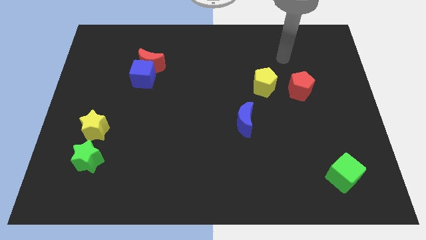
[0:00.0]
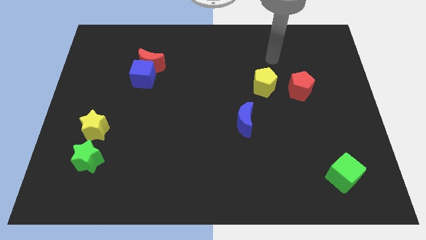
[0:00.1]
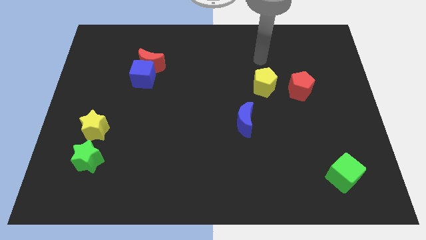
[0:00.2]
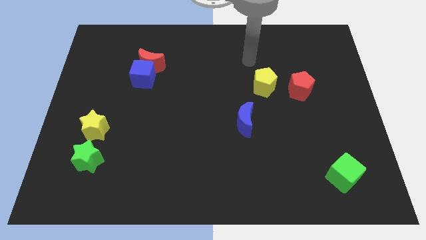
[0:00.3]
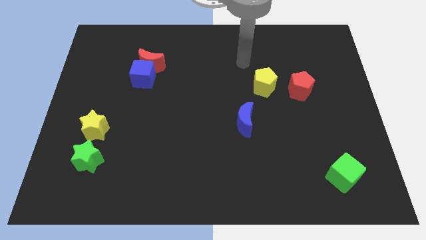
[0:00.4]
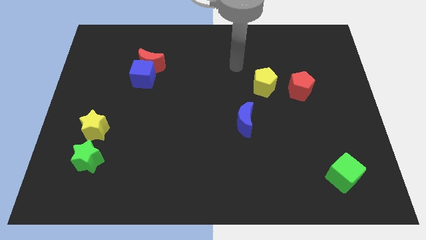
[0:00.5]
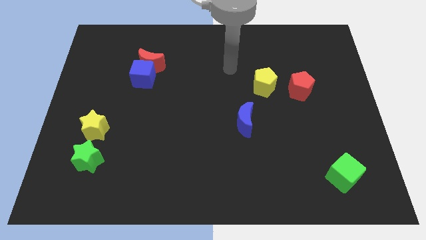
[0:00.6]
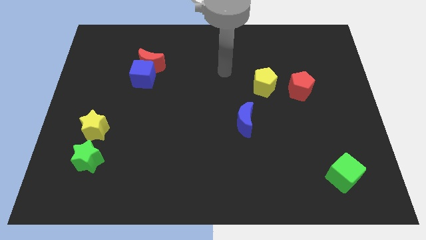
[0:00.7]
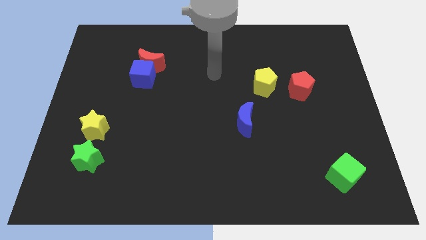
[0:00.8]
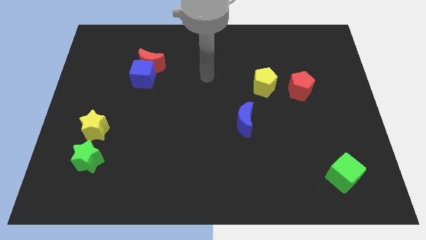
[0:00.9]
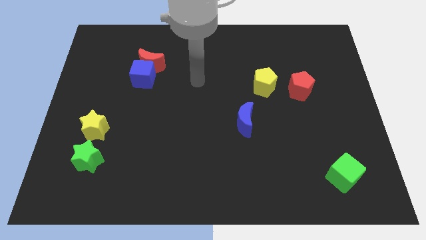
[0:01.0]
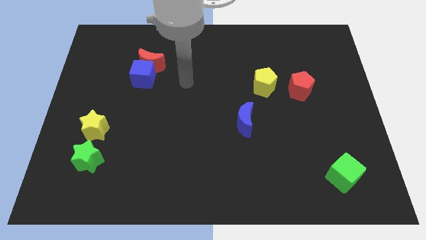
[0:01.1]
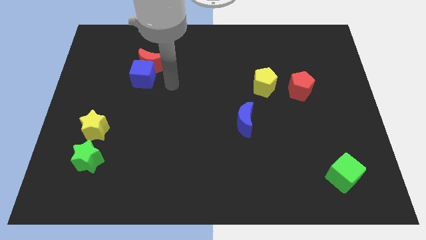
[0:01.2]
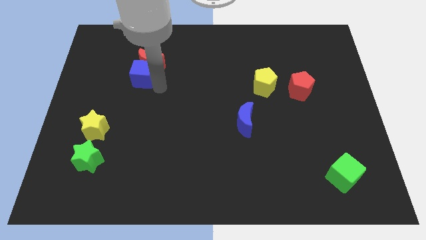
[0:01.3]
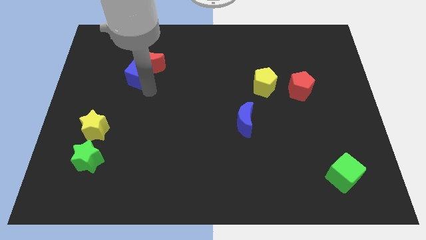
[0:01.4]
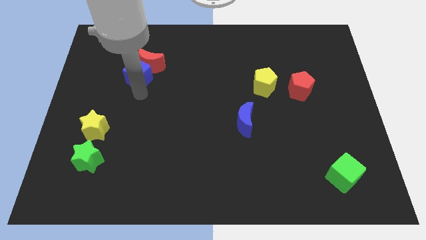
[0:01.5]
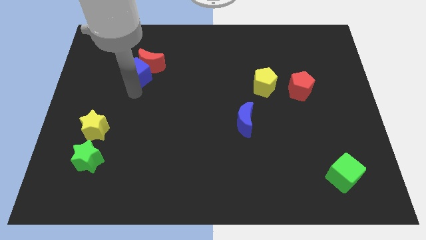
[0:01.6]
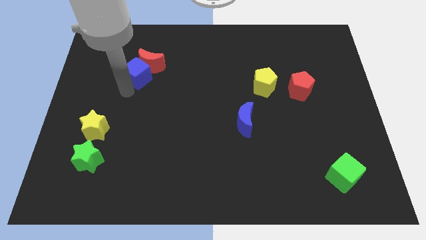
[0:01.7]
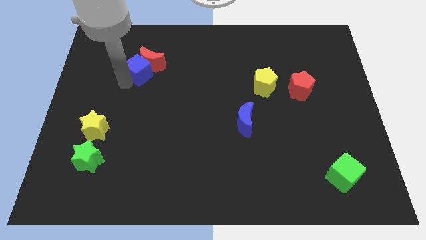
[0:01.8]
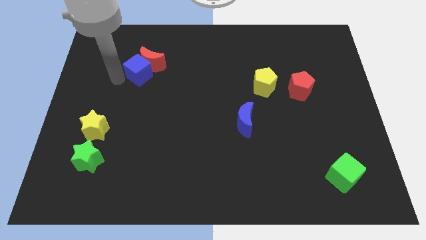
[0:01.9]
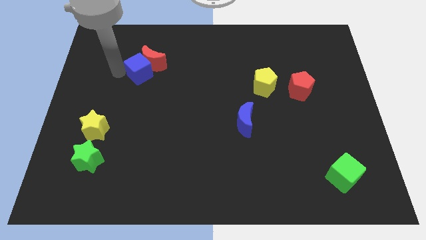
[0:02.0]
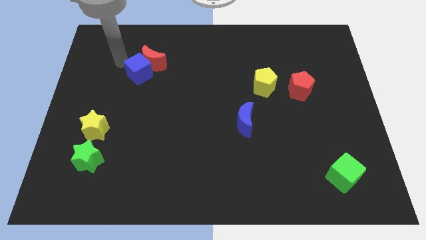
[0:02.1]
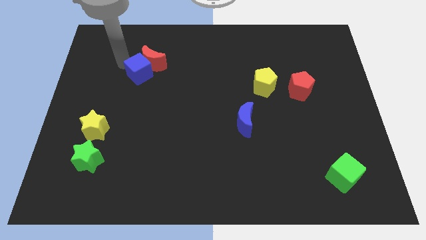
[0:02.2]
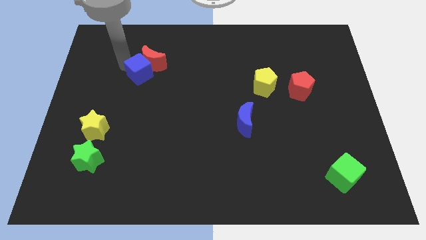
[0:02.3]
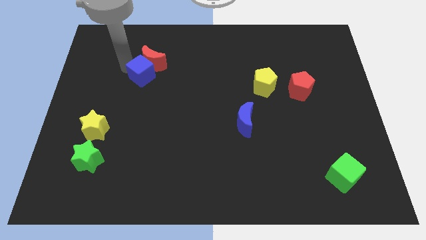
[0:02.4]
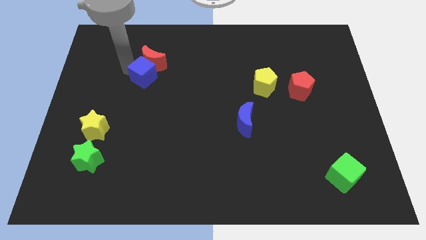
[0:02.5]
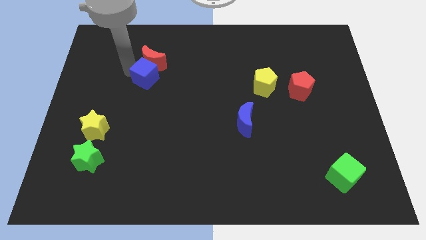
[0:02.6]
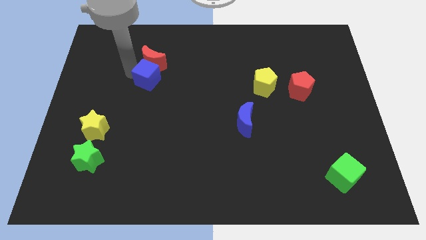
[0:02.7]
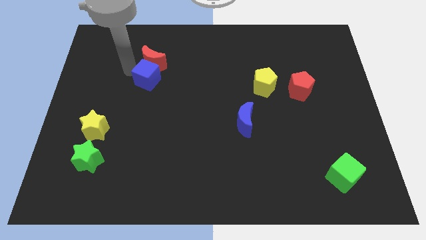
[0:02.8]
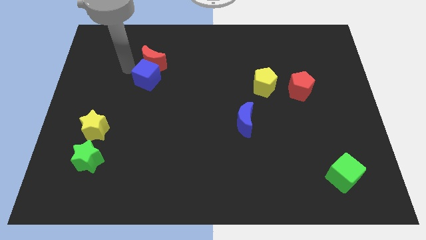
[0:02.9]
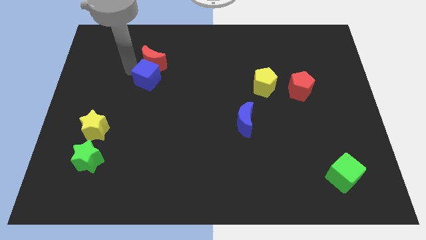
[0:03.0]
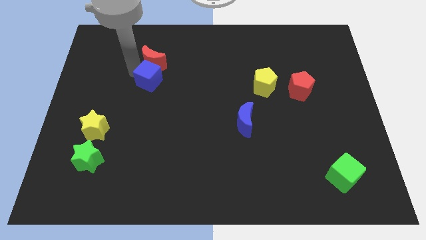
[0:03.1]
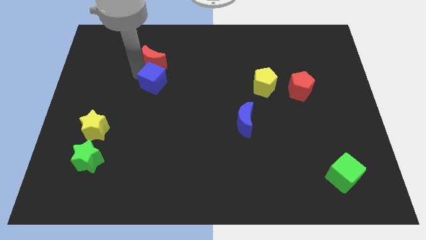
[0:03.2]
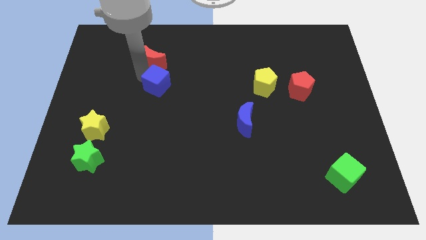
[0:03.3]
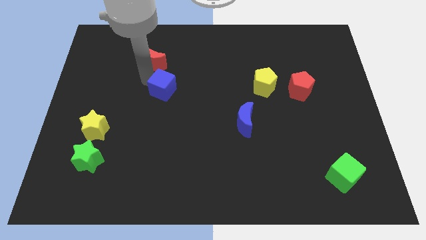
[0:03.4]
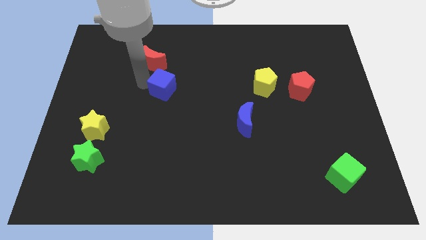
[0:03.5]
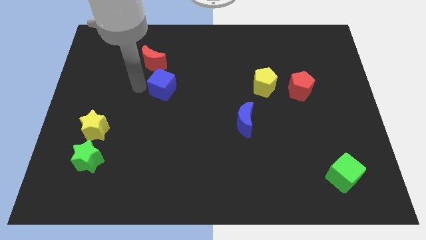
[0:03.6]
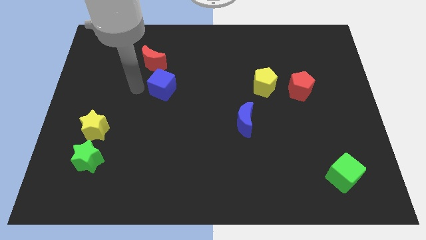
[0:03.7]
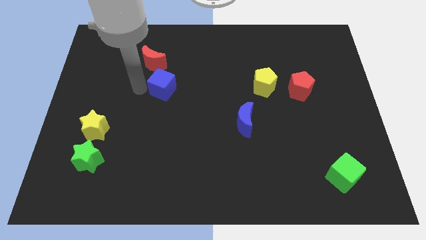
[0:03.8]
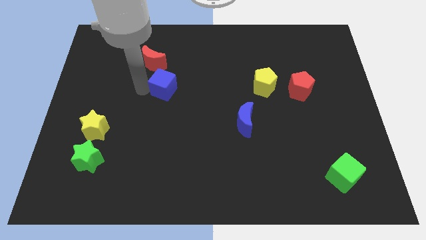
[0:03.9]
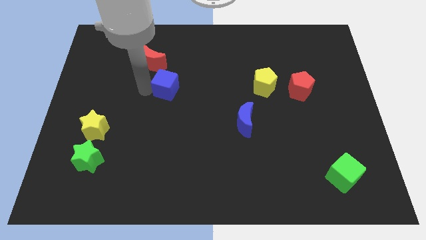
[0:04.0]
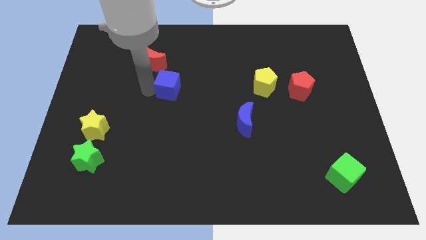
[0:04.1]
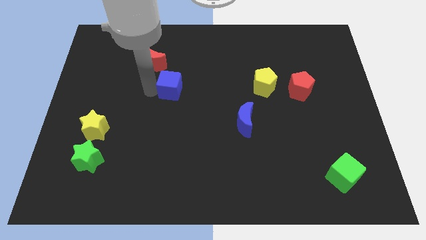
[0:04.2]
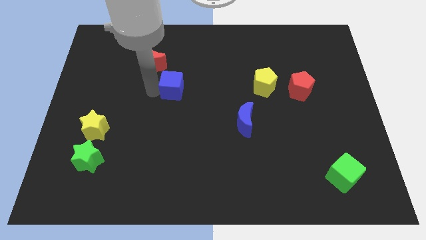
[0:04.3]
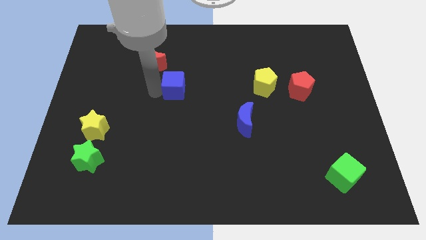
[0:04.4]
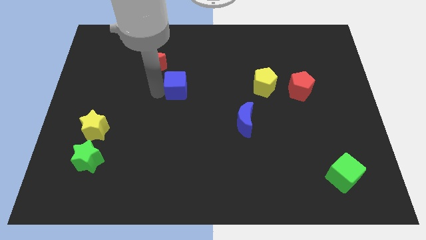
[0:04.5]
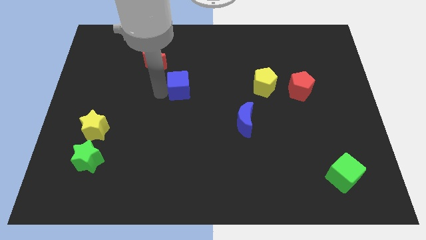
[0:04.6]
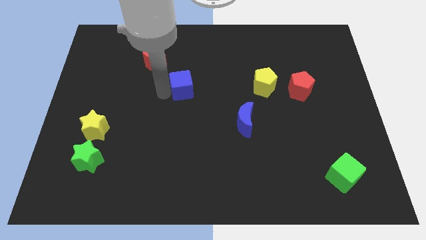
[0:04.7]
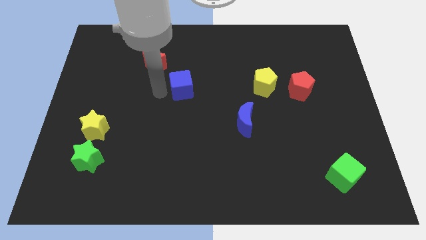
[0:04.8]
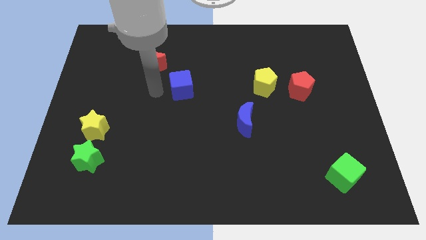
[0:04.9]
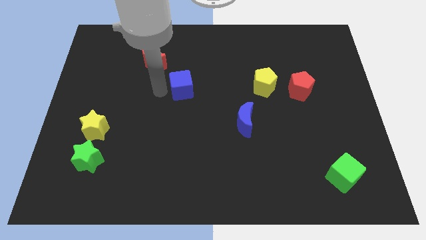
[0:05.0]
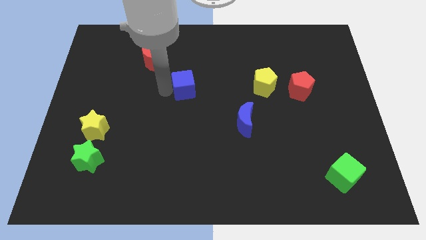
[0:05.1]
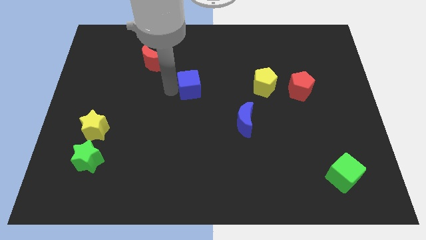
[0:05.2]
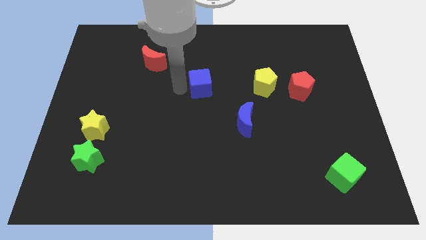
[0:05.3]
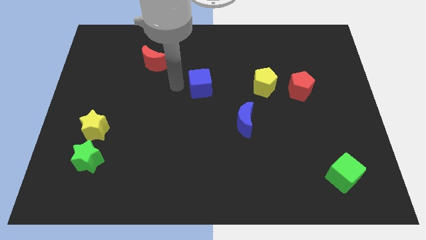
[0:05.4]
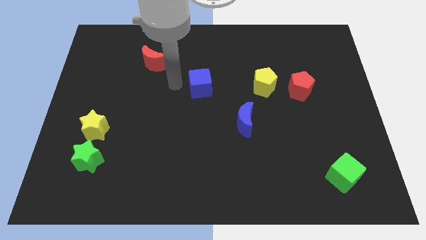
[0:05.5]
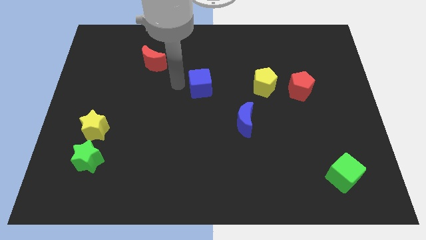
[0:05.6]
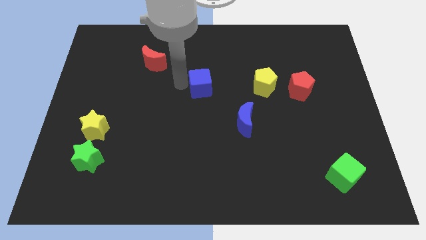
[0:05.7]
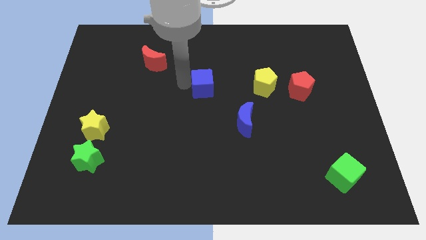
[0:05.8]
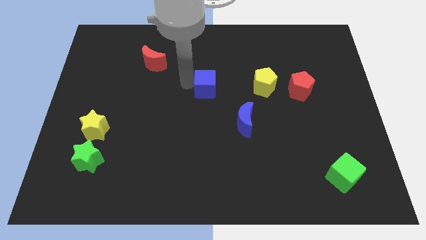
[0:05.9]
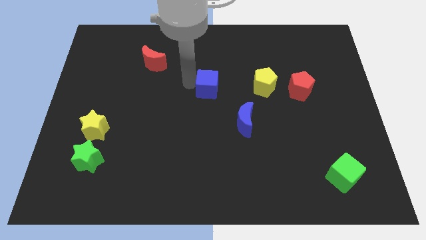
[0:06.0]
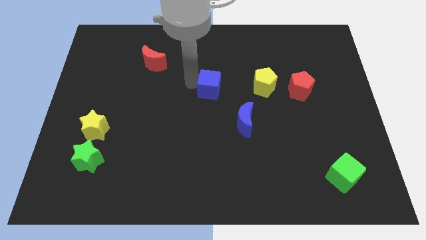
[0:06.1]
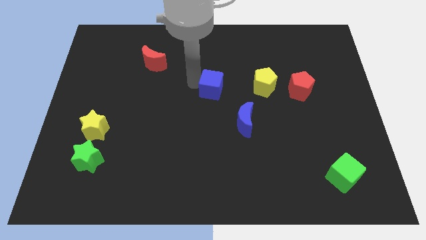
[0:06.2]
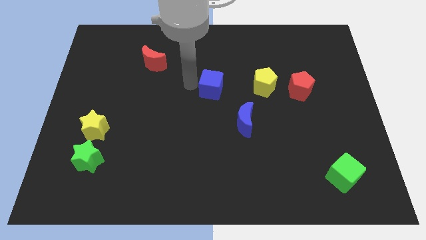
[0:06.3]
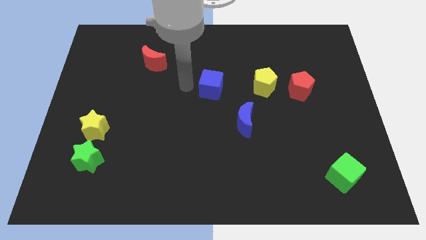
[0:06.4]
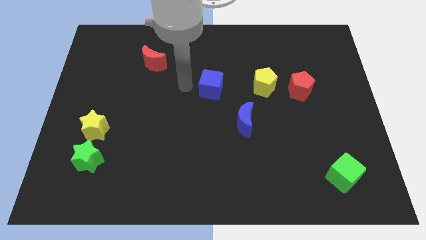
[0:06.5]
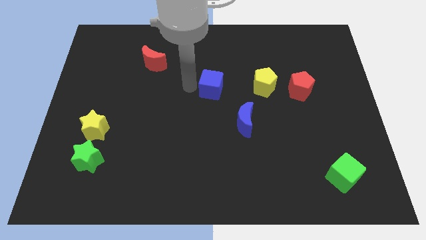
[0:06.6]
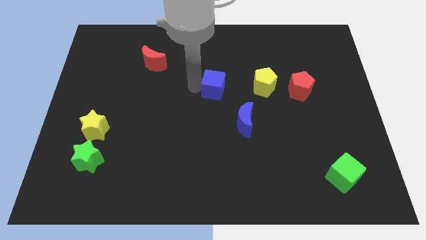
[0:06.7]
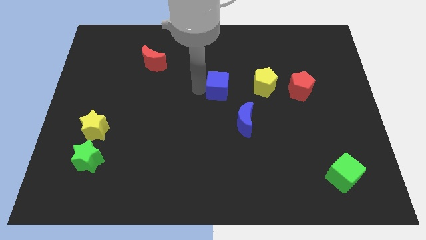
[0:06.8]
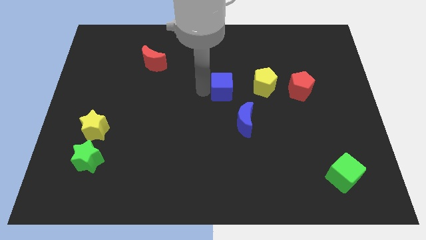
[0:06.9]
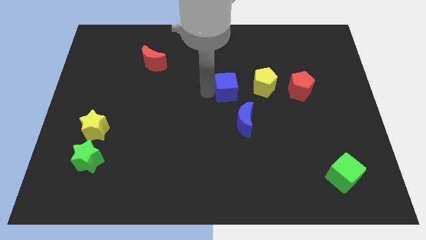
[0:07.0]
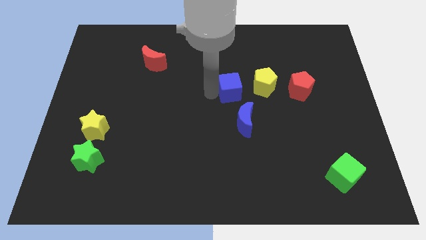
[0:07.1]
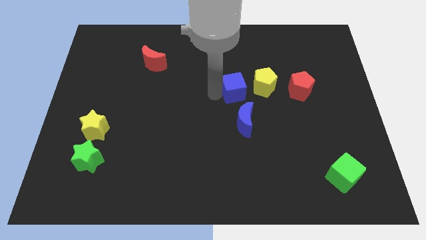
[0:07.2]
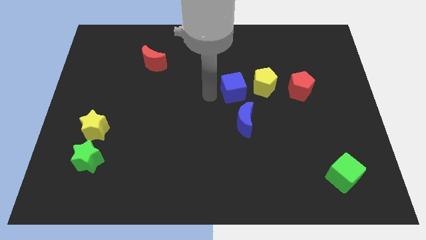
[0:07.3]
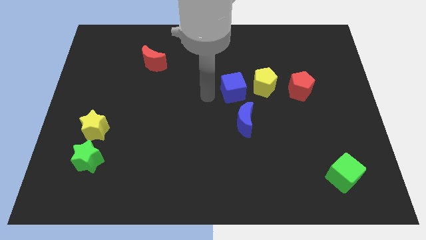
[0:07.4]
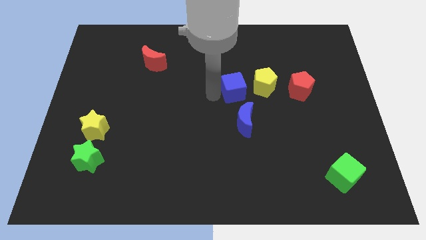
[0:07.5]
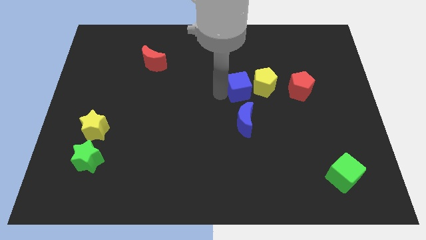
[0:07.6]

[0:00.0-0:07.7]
slide the blue cube next to the yellow pentagon
